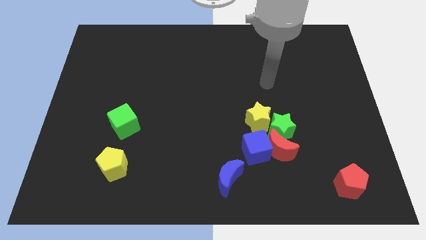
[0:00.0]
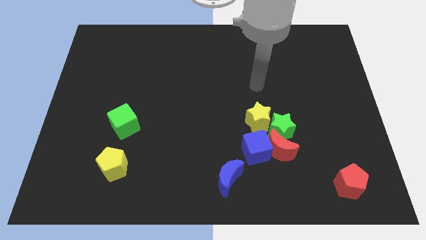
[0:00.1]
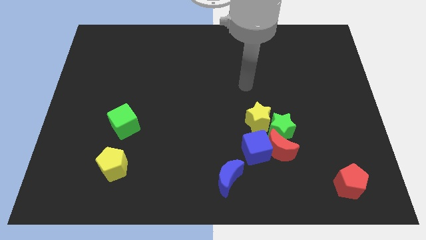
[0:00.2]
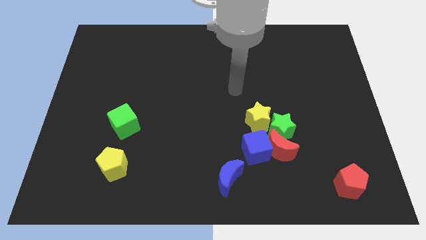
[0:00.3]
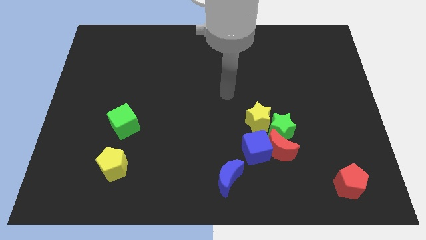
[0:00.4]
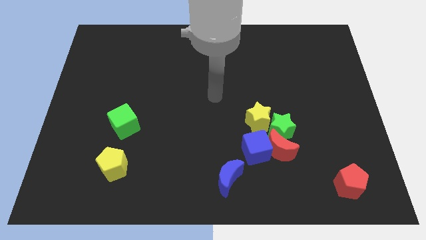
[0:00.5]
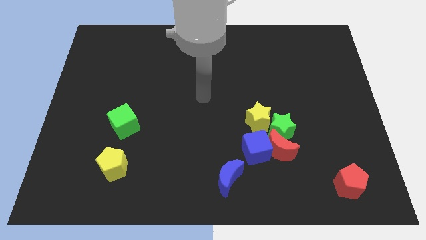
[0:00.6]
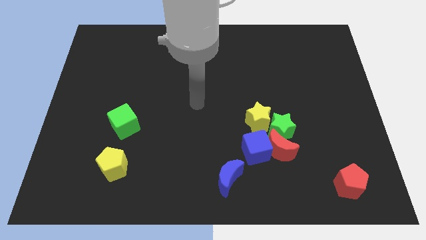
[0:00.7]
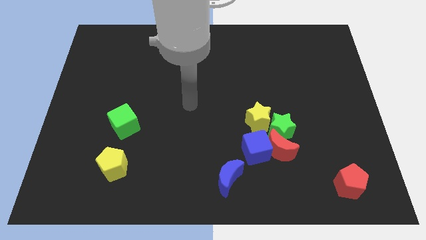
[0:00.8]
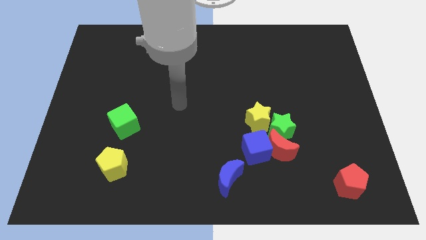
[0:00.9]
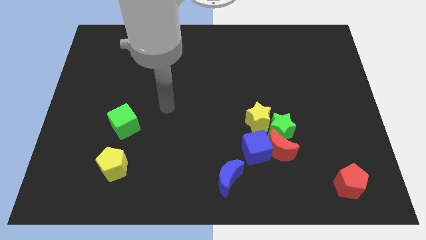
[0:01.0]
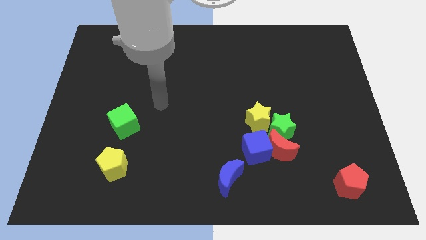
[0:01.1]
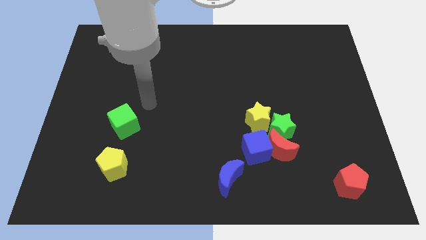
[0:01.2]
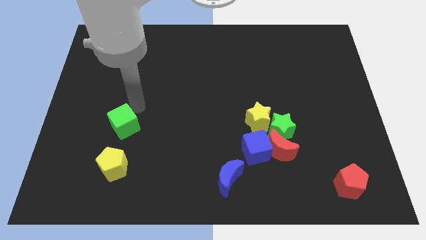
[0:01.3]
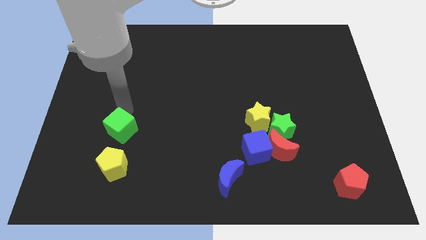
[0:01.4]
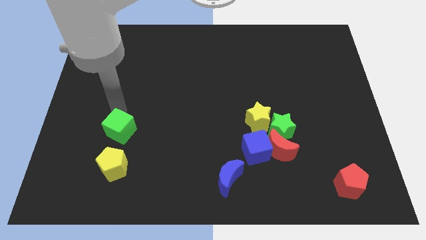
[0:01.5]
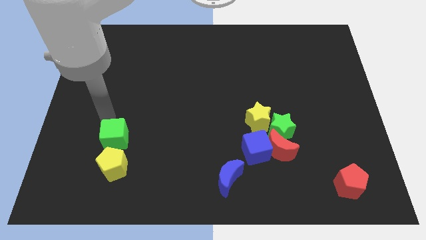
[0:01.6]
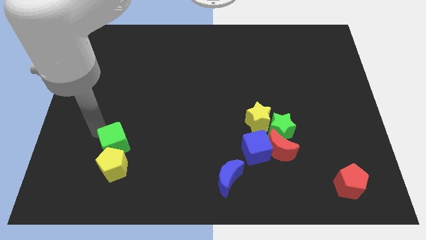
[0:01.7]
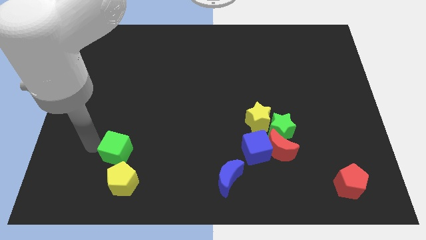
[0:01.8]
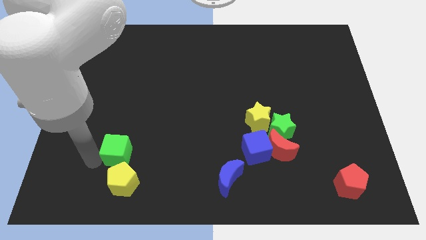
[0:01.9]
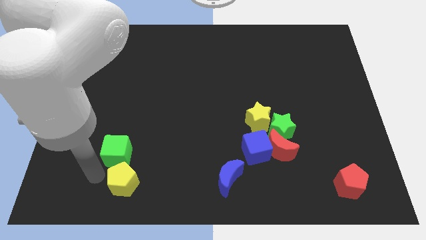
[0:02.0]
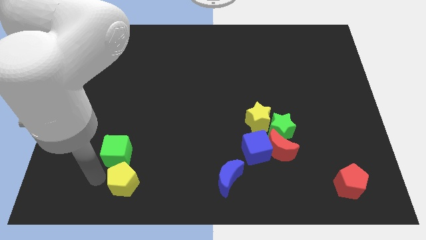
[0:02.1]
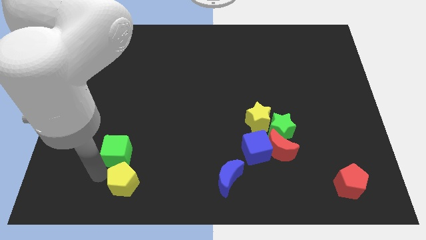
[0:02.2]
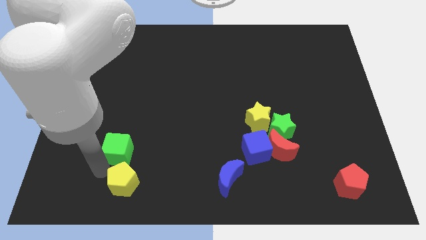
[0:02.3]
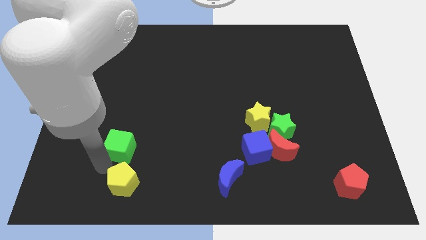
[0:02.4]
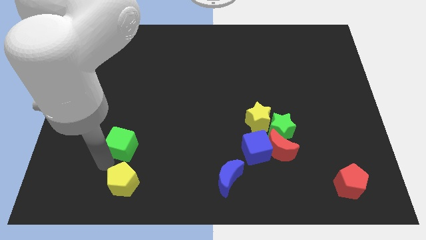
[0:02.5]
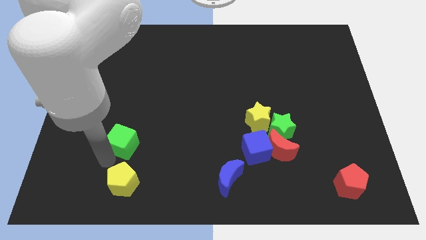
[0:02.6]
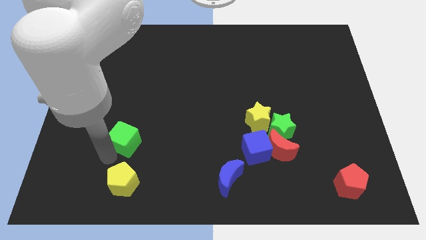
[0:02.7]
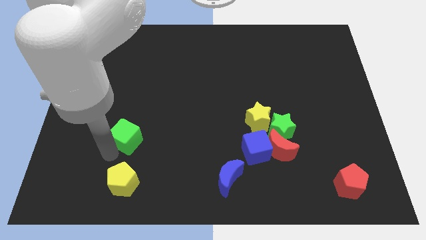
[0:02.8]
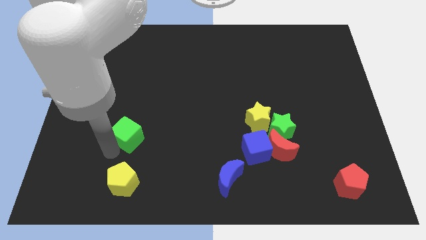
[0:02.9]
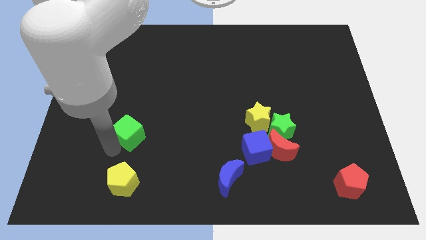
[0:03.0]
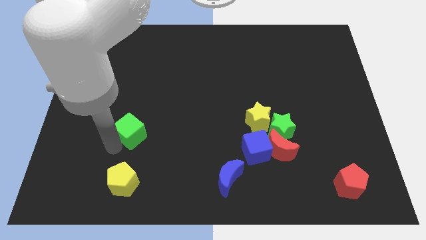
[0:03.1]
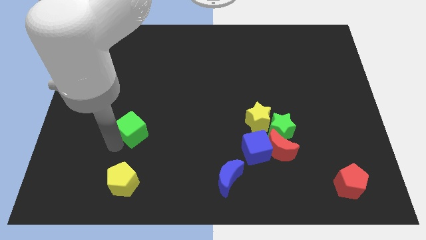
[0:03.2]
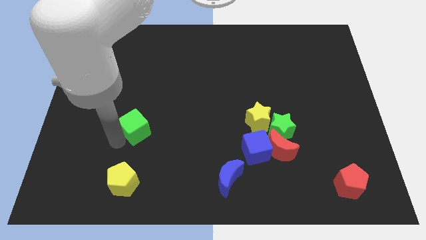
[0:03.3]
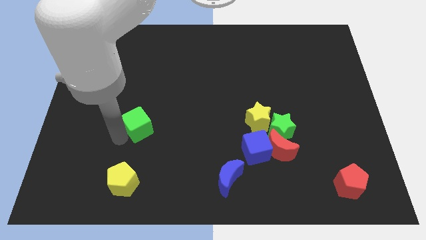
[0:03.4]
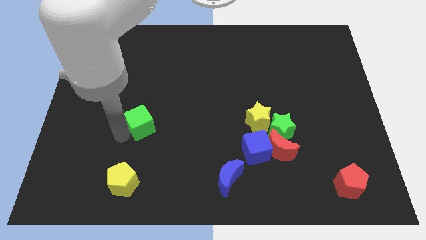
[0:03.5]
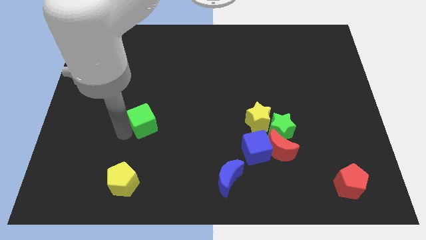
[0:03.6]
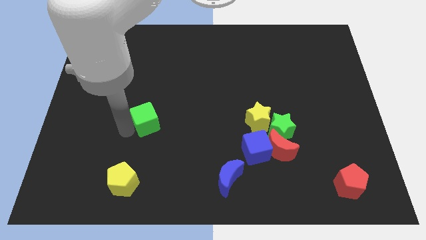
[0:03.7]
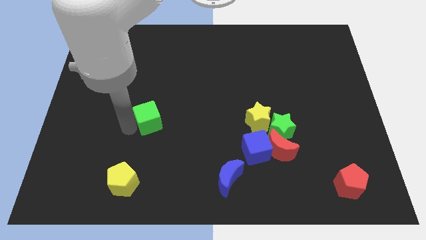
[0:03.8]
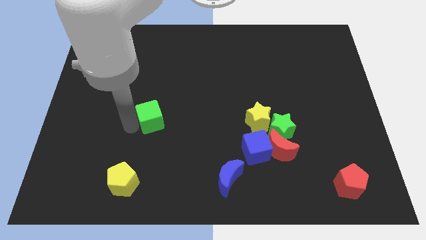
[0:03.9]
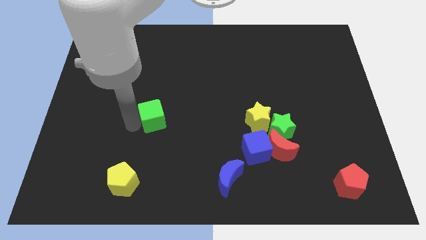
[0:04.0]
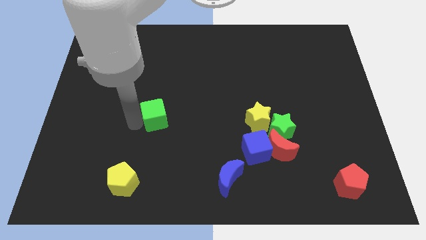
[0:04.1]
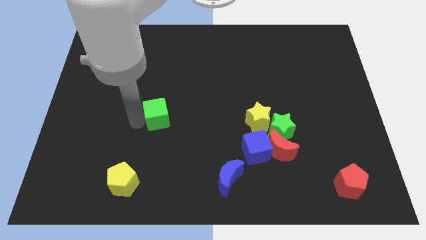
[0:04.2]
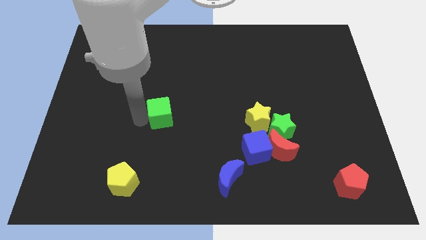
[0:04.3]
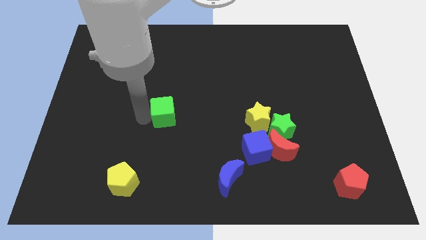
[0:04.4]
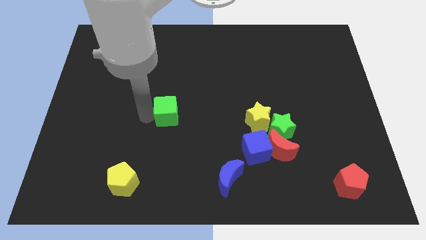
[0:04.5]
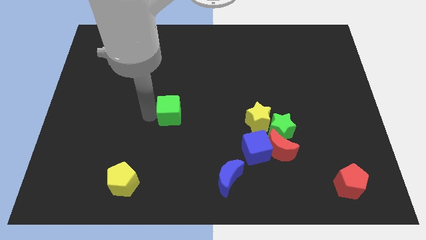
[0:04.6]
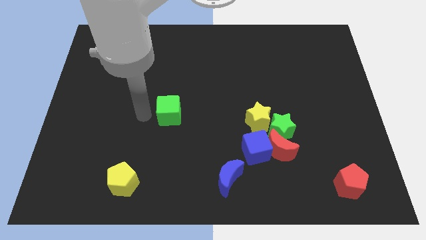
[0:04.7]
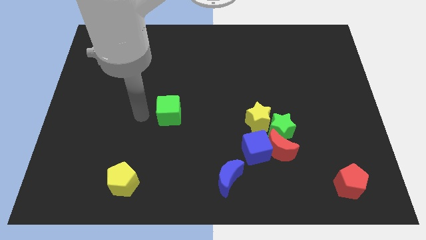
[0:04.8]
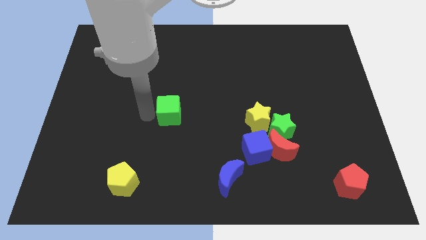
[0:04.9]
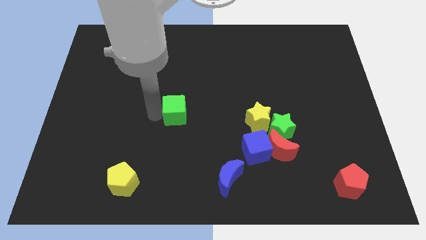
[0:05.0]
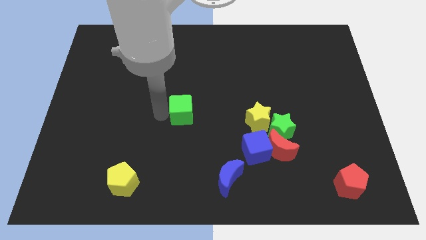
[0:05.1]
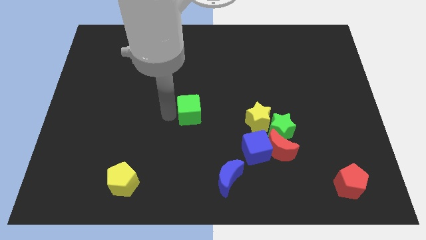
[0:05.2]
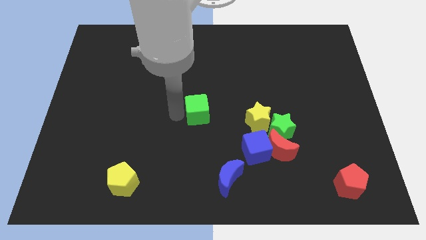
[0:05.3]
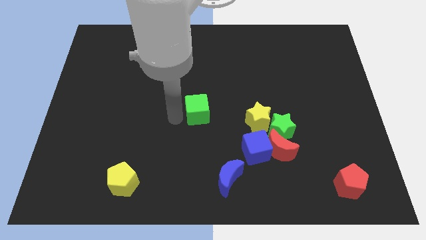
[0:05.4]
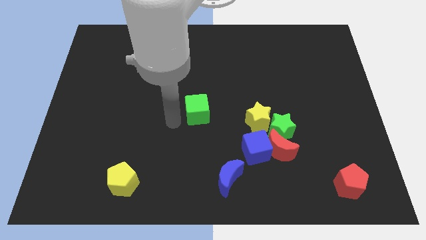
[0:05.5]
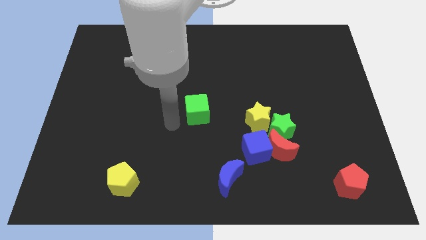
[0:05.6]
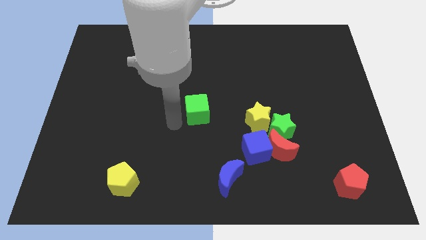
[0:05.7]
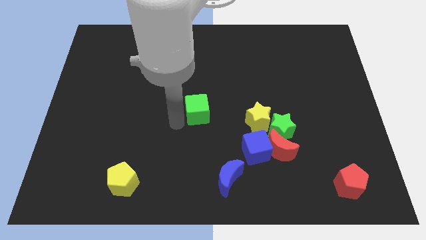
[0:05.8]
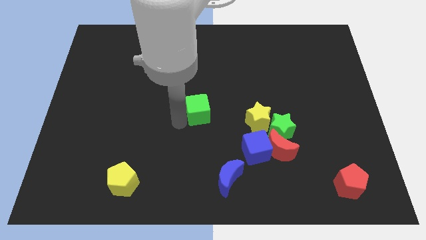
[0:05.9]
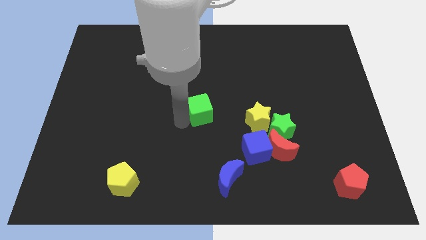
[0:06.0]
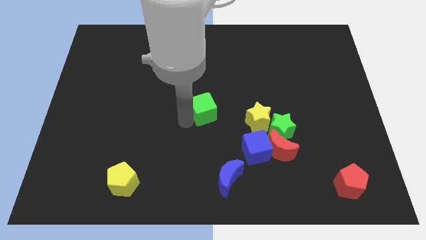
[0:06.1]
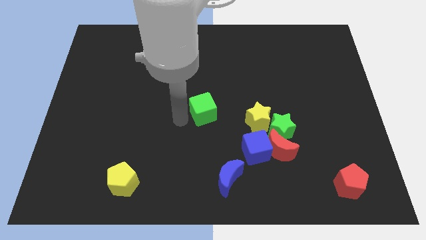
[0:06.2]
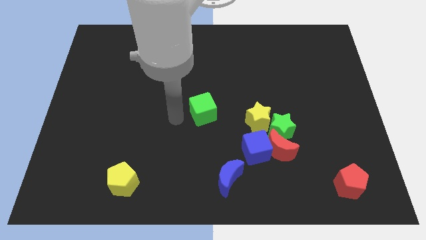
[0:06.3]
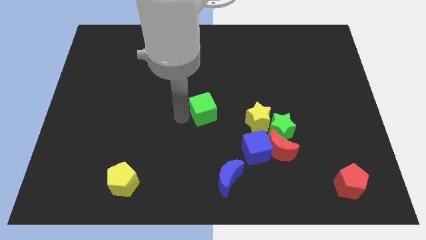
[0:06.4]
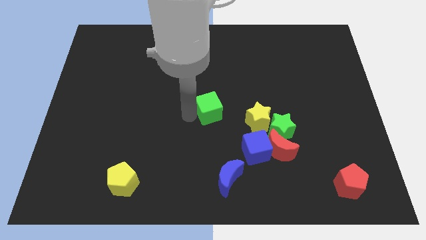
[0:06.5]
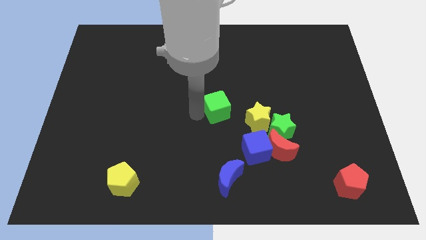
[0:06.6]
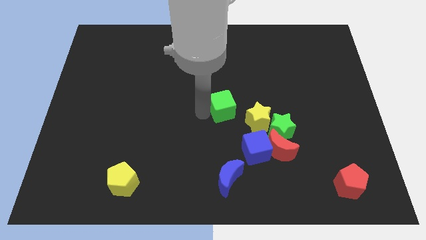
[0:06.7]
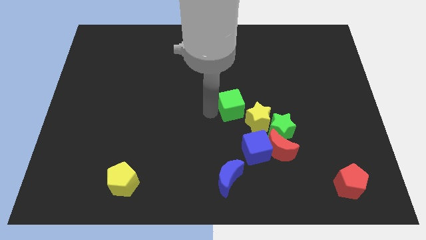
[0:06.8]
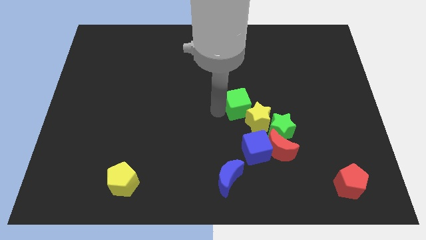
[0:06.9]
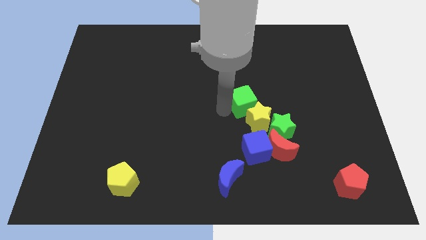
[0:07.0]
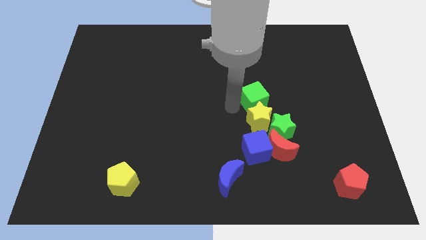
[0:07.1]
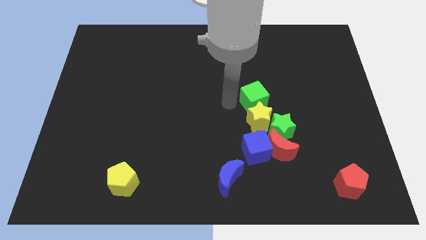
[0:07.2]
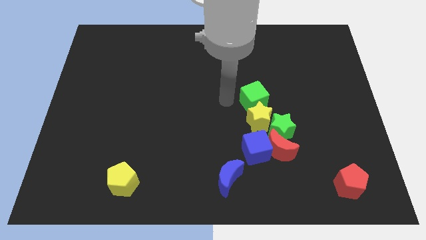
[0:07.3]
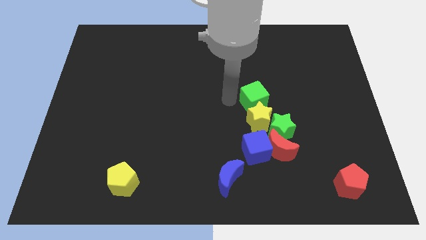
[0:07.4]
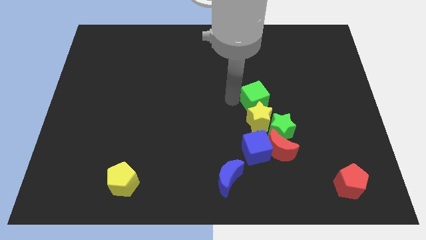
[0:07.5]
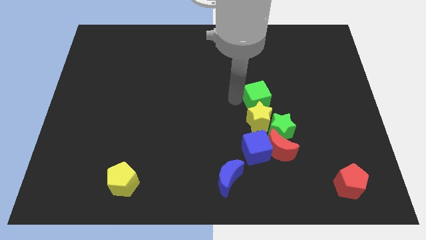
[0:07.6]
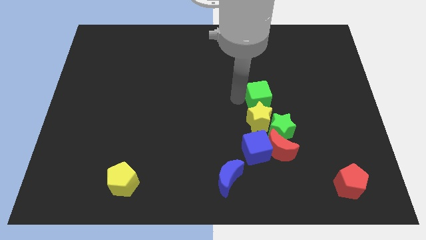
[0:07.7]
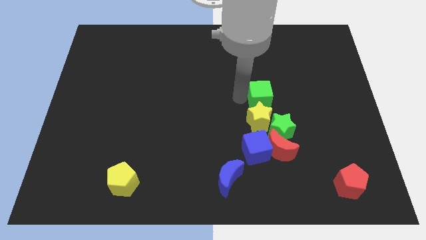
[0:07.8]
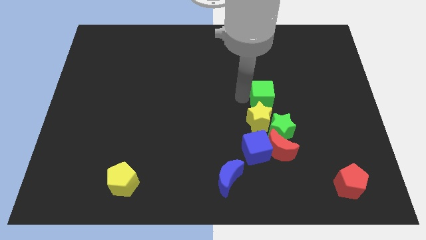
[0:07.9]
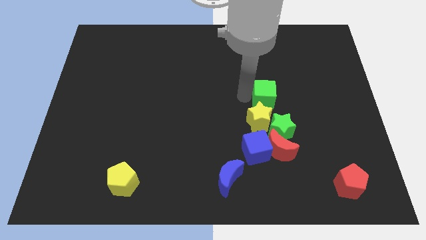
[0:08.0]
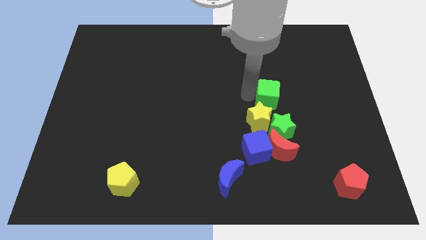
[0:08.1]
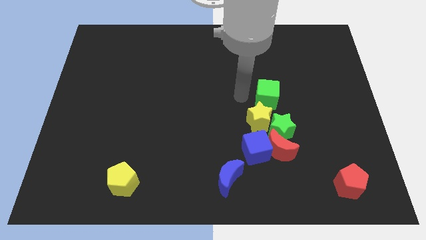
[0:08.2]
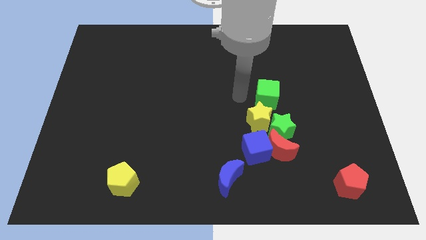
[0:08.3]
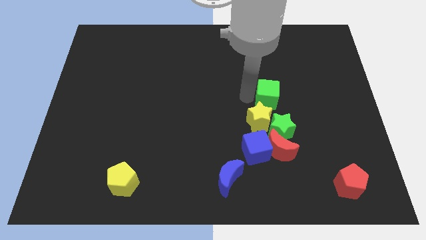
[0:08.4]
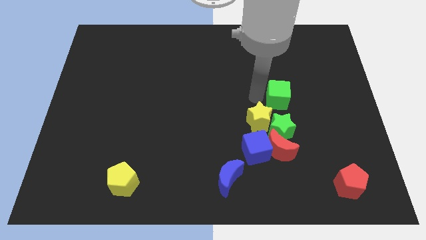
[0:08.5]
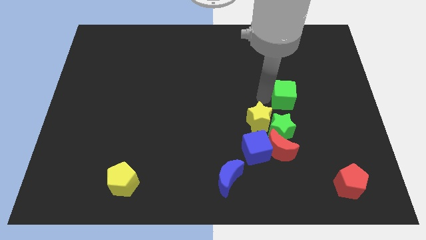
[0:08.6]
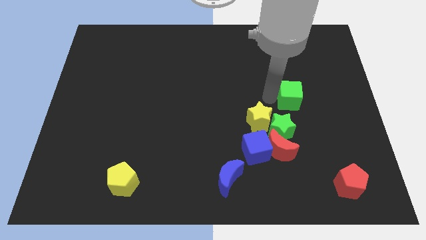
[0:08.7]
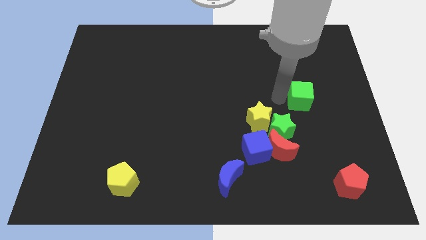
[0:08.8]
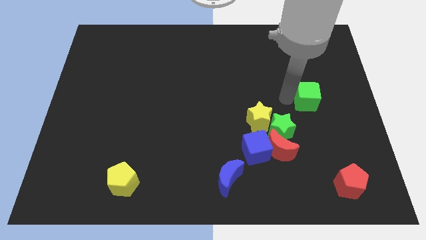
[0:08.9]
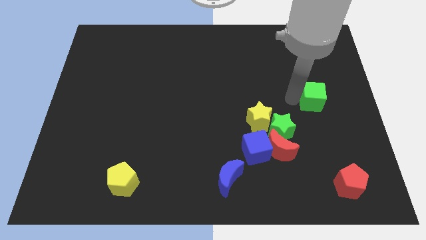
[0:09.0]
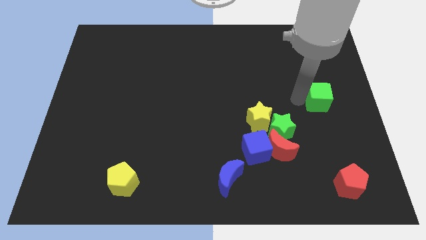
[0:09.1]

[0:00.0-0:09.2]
put the green cube to the right side
